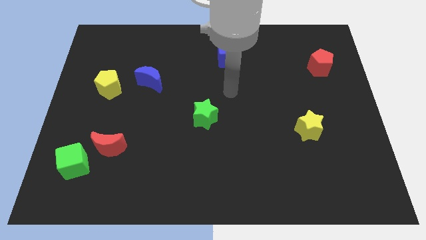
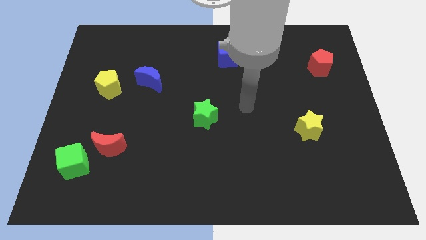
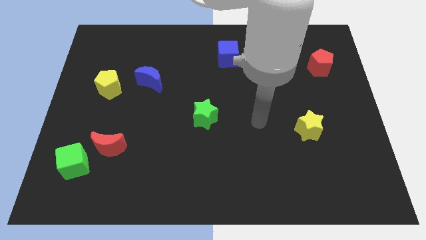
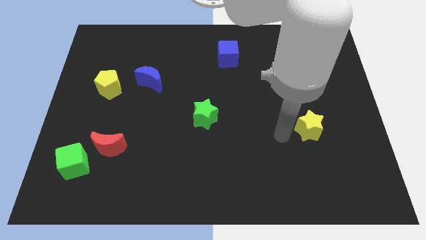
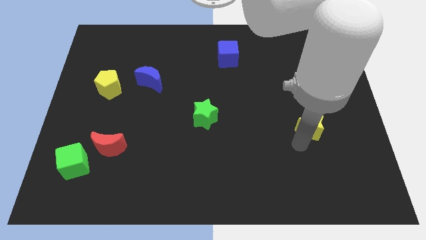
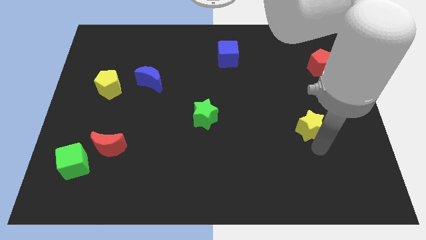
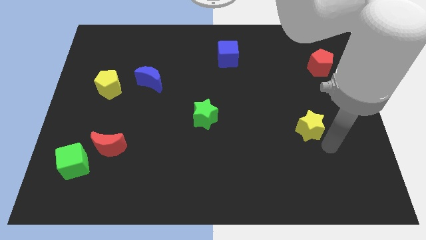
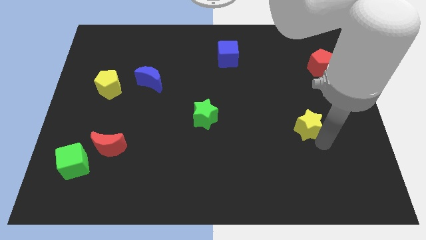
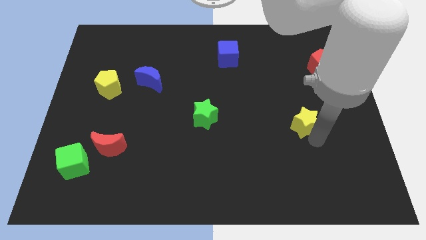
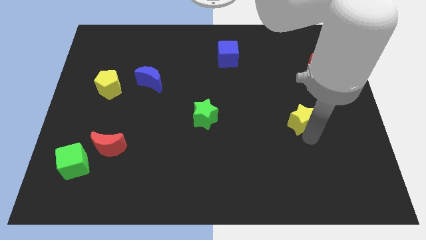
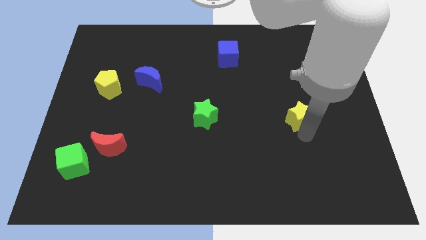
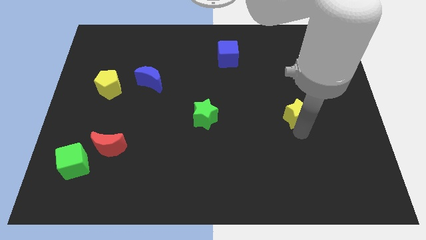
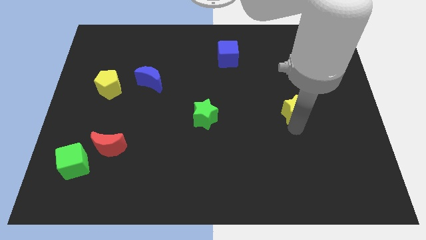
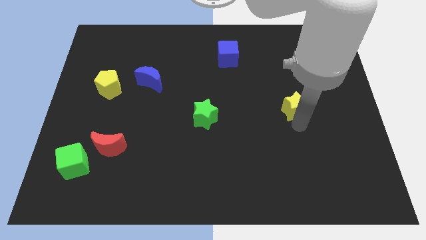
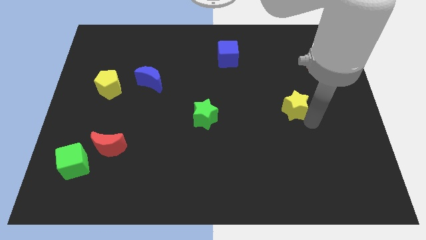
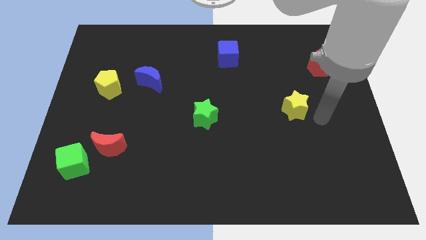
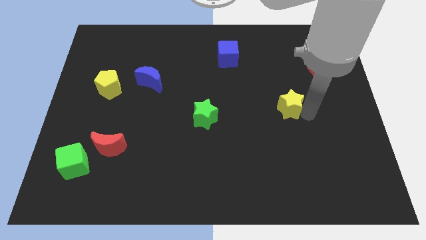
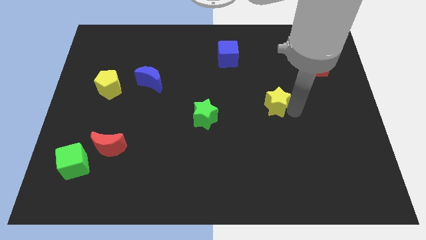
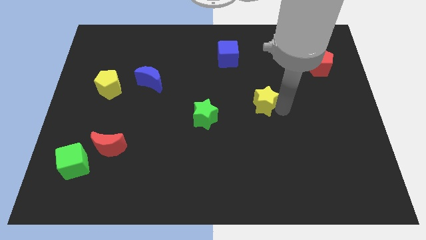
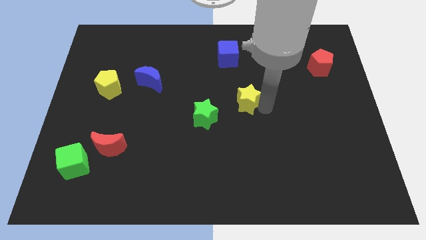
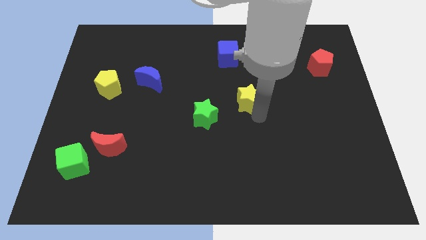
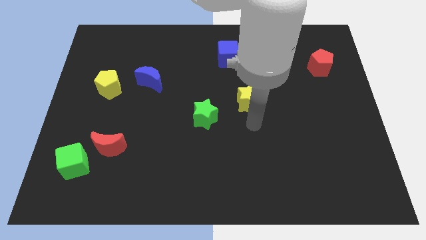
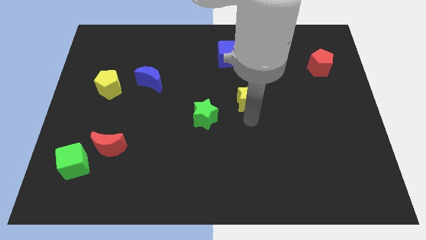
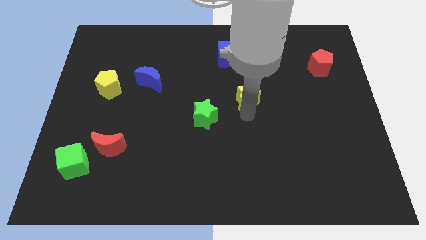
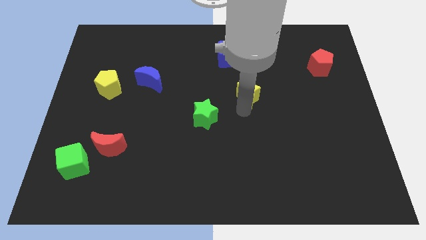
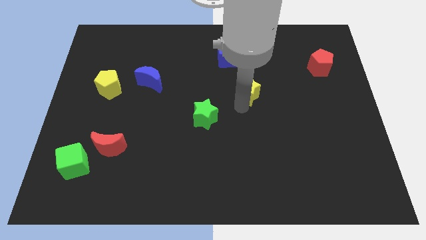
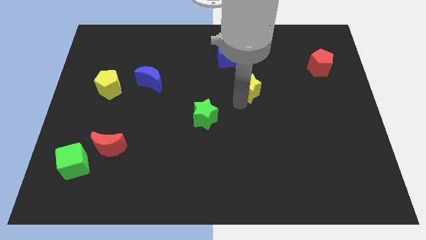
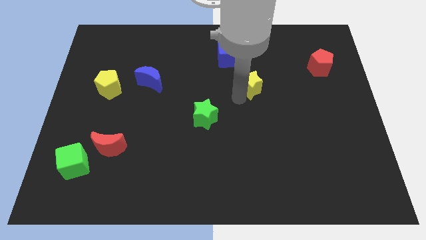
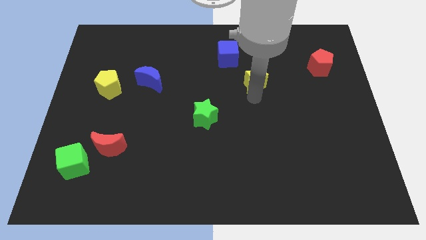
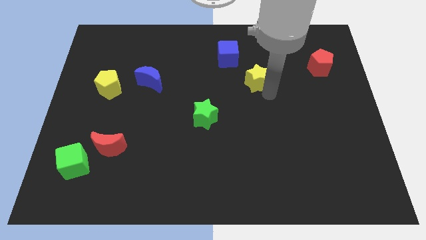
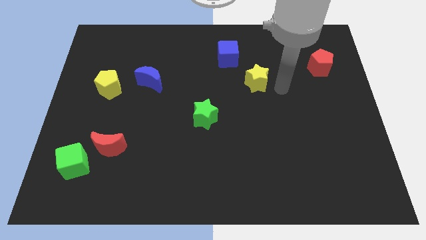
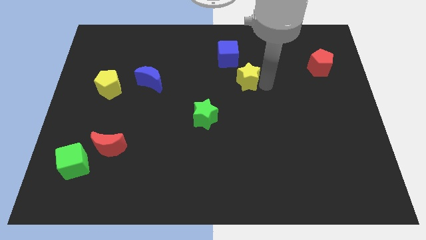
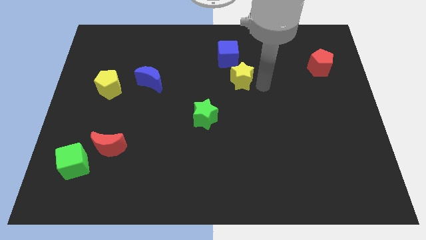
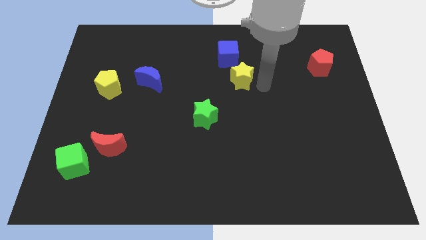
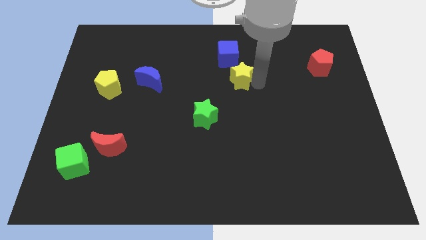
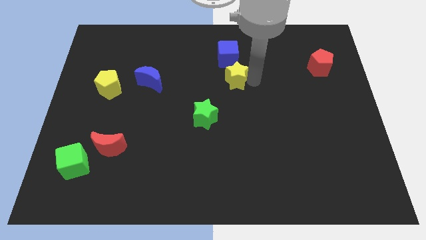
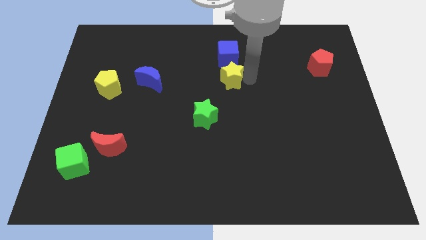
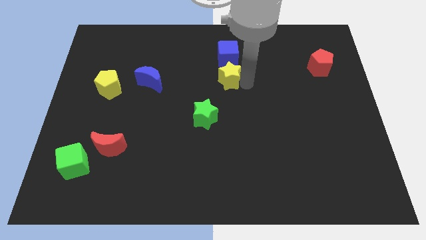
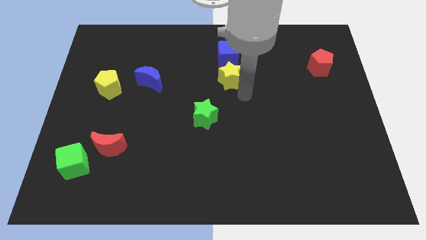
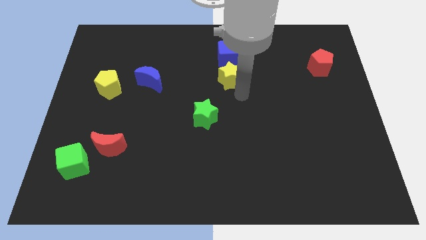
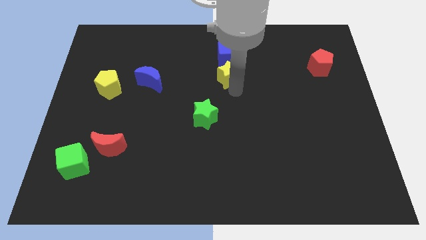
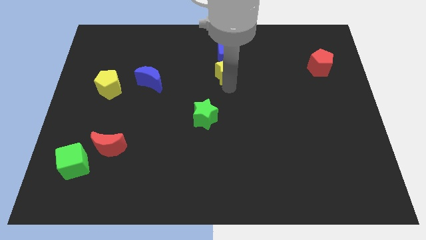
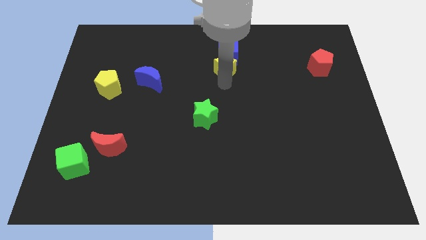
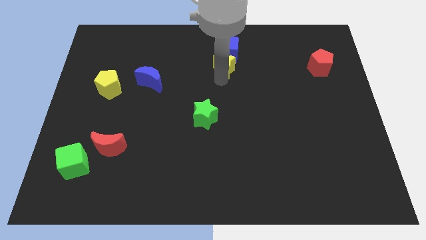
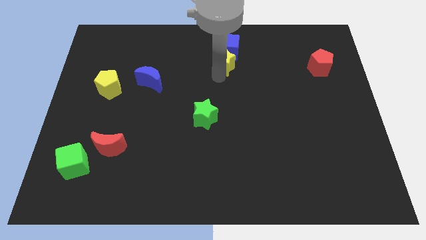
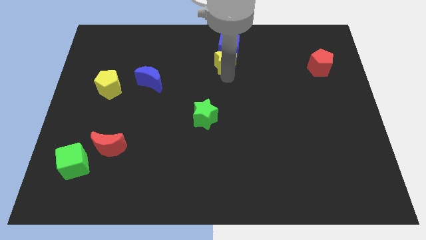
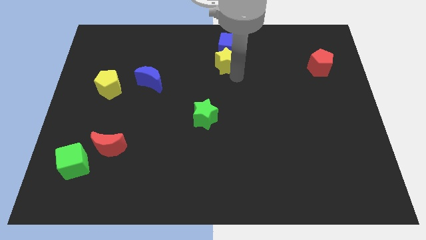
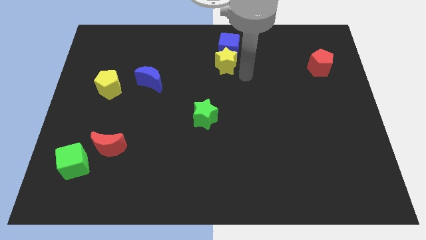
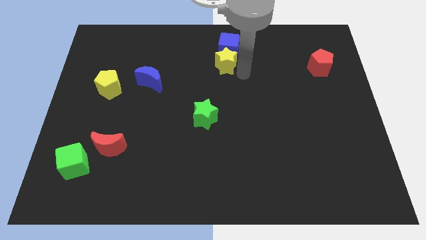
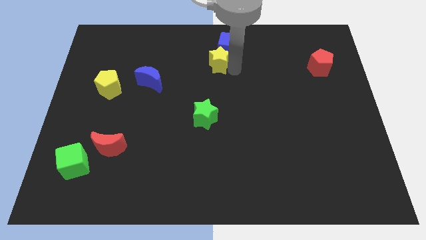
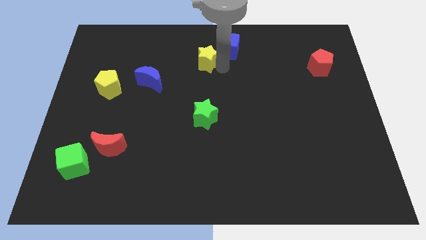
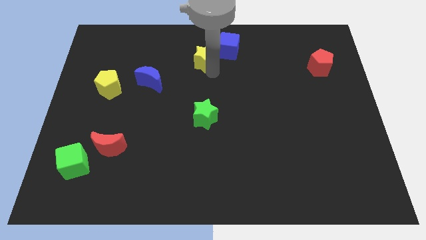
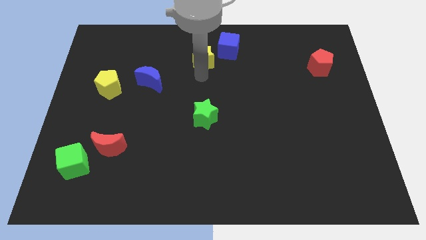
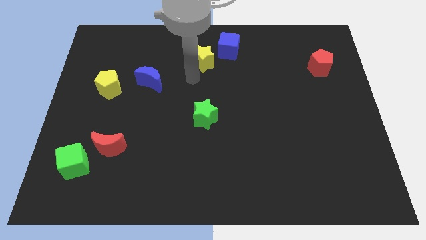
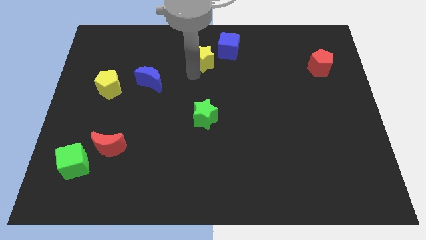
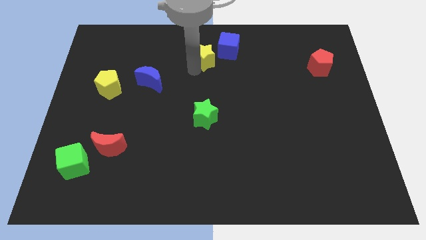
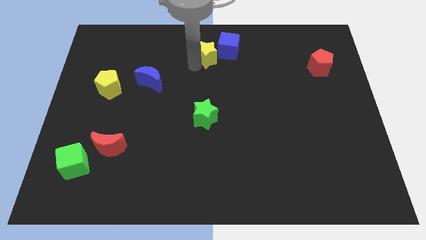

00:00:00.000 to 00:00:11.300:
push the yellow star to the top side
